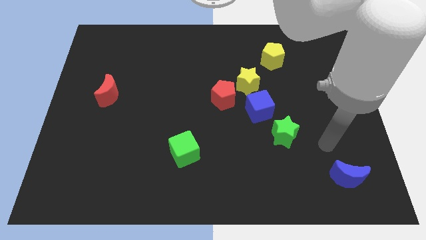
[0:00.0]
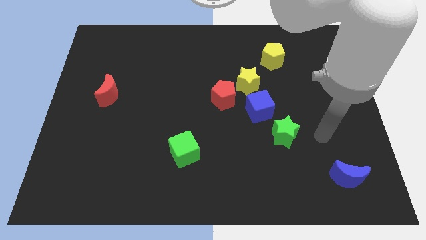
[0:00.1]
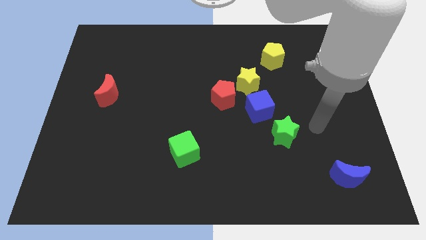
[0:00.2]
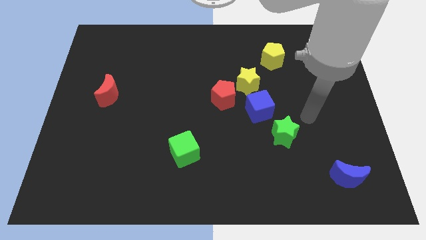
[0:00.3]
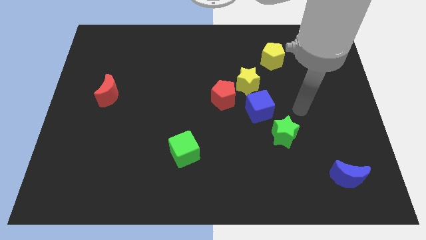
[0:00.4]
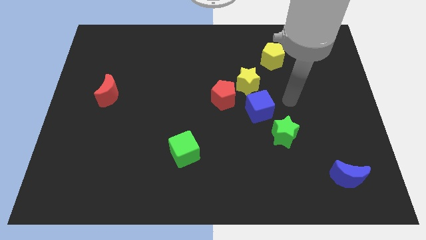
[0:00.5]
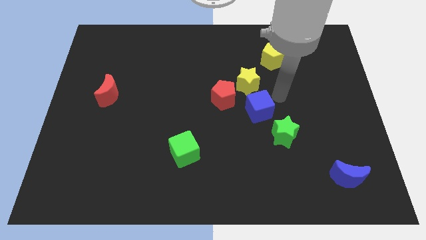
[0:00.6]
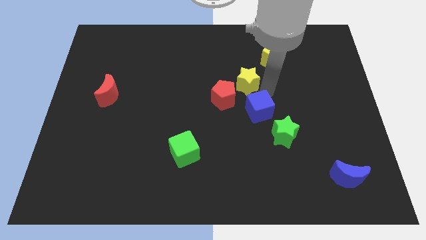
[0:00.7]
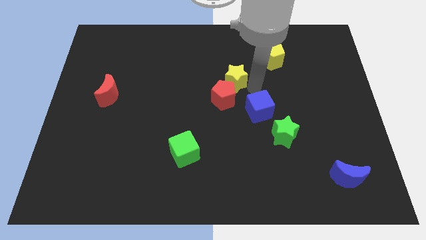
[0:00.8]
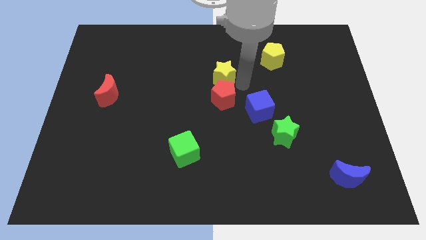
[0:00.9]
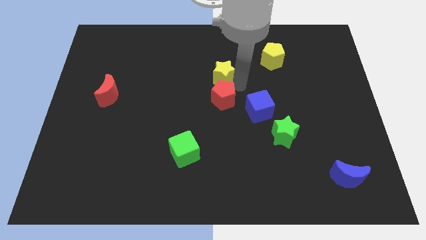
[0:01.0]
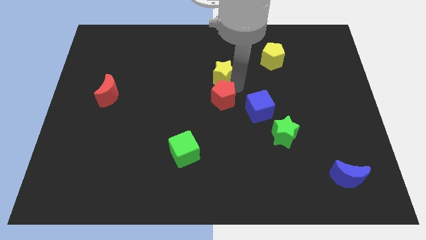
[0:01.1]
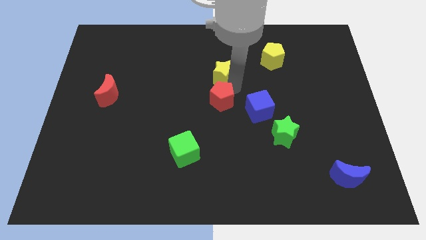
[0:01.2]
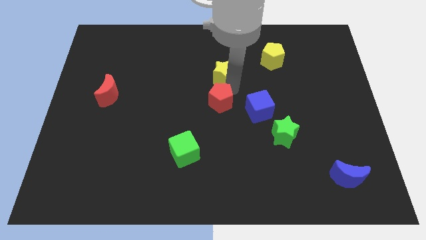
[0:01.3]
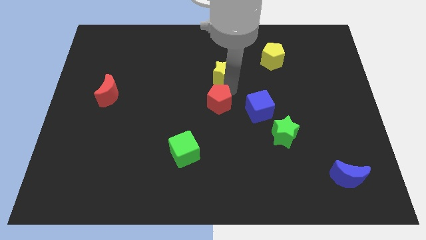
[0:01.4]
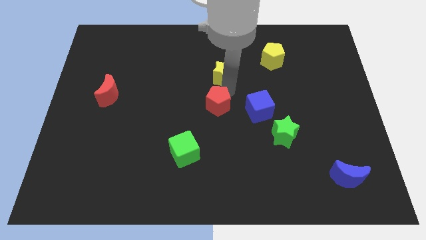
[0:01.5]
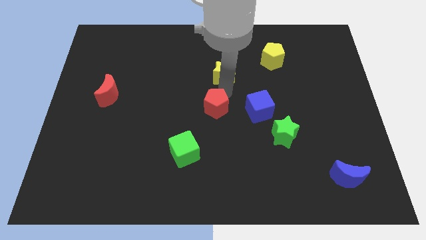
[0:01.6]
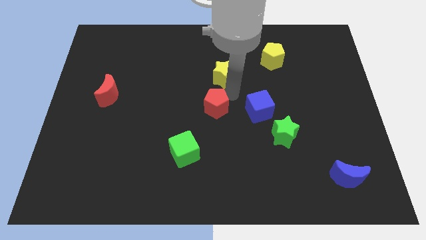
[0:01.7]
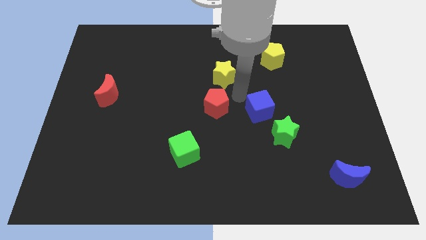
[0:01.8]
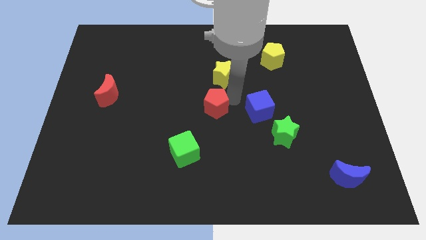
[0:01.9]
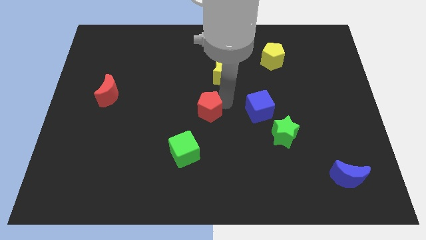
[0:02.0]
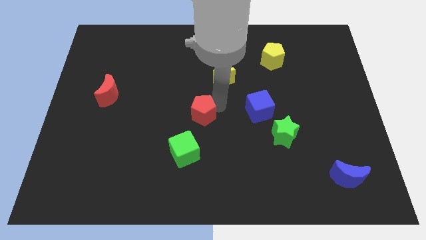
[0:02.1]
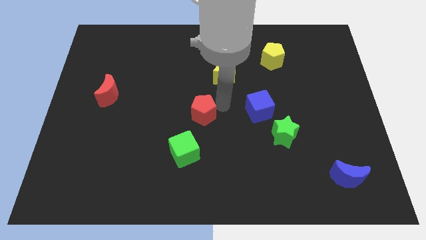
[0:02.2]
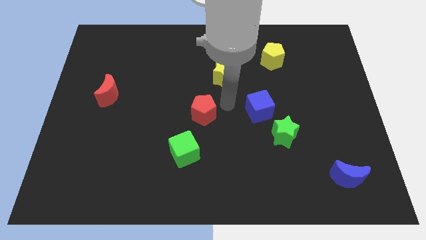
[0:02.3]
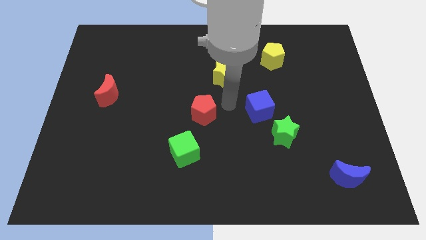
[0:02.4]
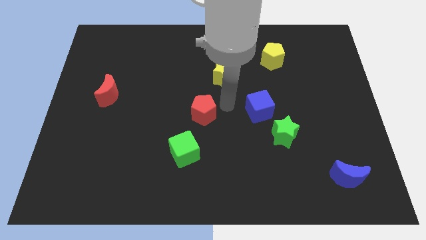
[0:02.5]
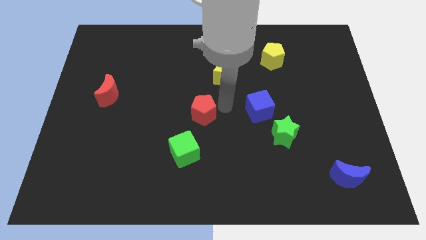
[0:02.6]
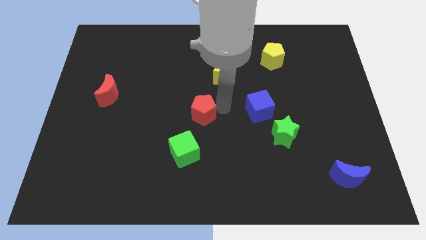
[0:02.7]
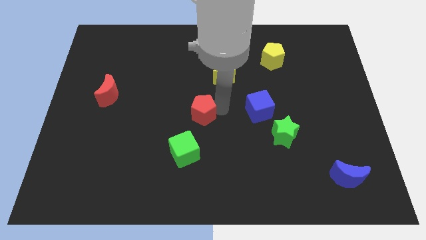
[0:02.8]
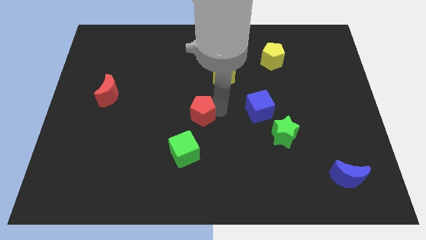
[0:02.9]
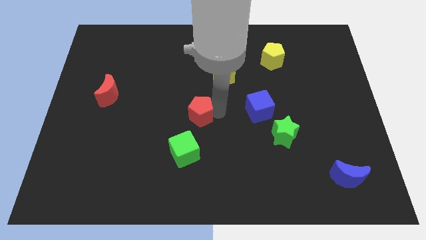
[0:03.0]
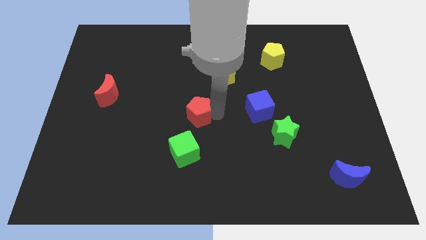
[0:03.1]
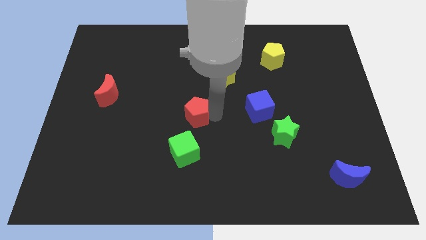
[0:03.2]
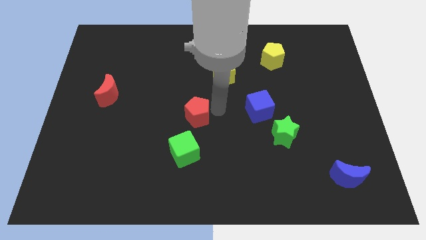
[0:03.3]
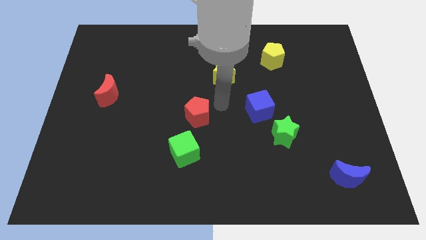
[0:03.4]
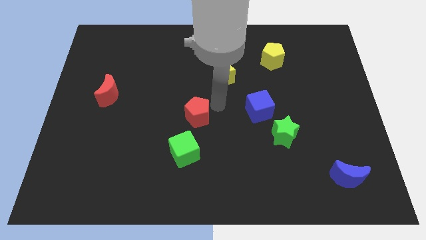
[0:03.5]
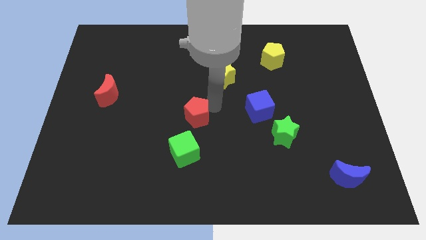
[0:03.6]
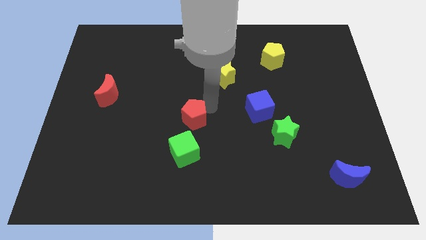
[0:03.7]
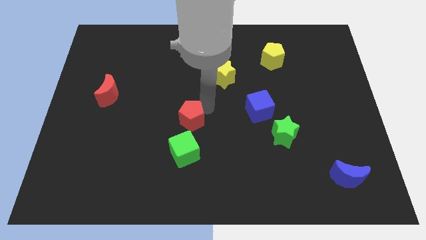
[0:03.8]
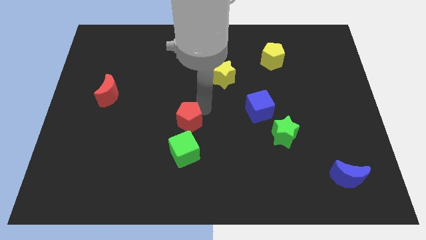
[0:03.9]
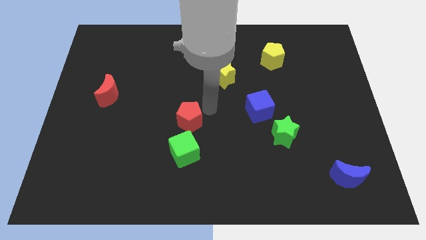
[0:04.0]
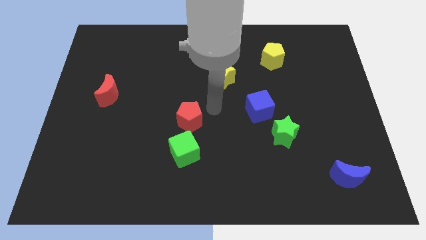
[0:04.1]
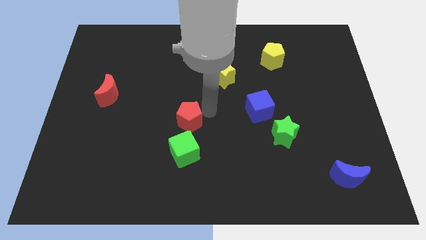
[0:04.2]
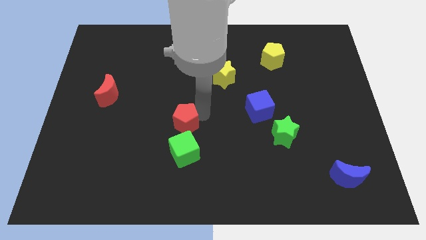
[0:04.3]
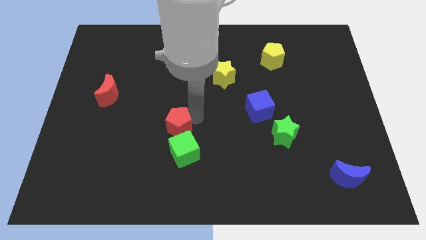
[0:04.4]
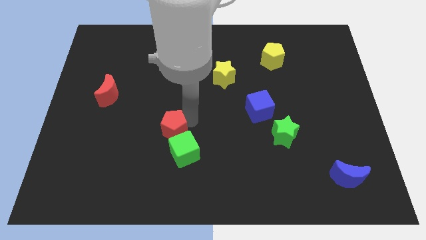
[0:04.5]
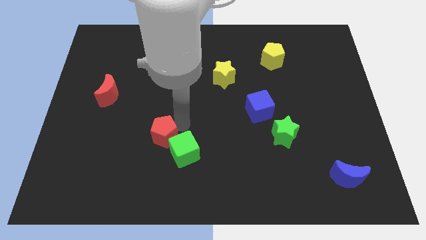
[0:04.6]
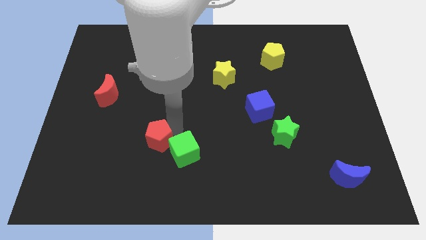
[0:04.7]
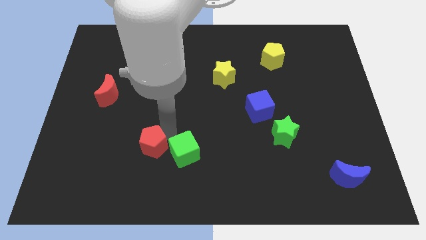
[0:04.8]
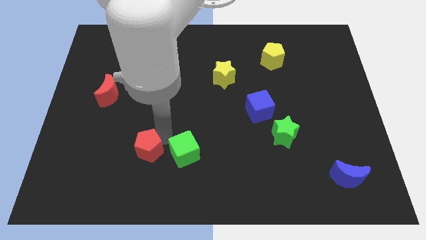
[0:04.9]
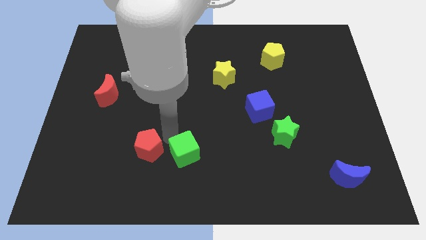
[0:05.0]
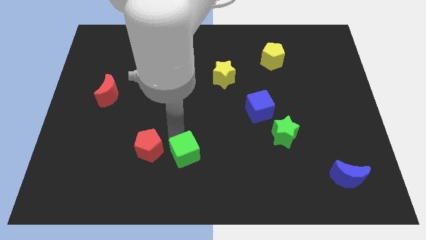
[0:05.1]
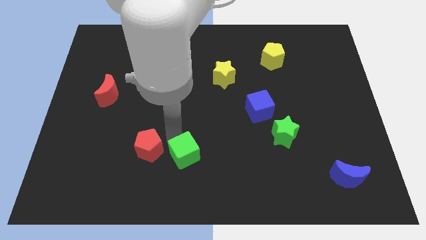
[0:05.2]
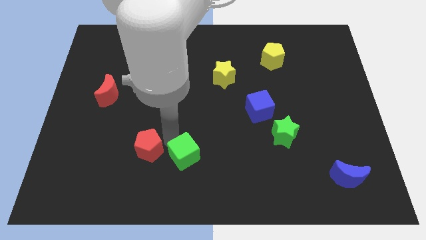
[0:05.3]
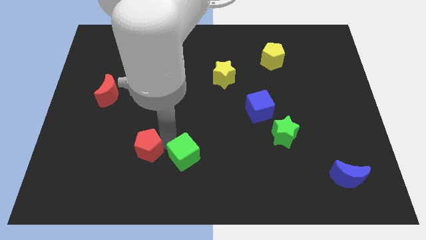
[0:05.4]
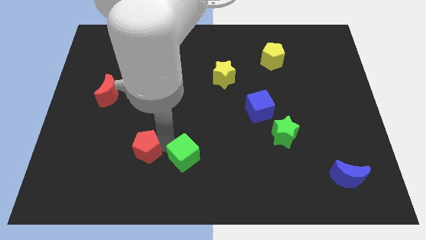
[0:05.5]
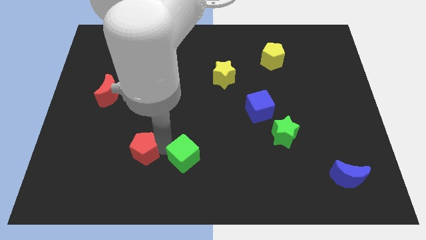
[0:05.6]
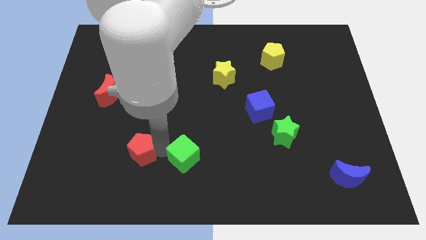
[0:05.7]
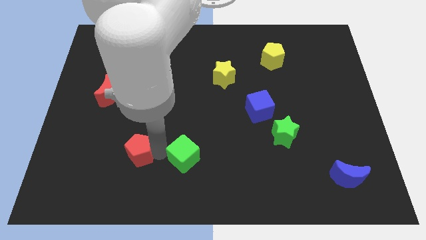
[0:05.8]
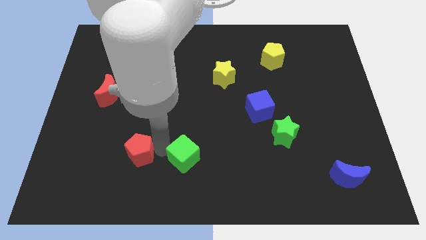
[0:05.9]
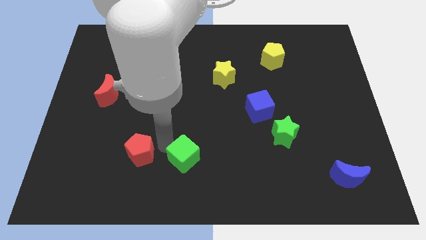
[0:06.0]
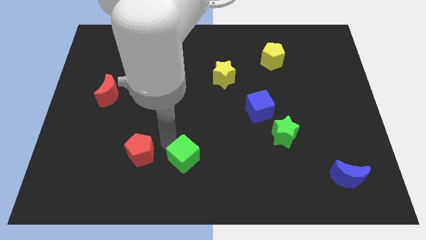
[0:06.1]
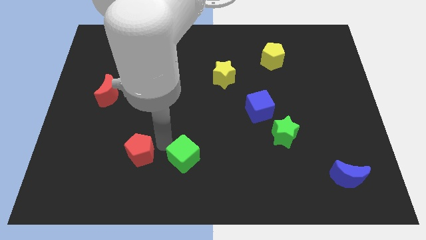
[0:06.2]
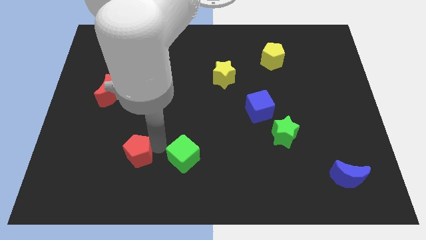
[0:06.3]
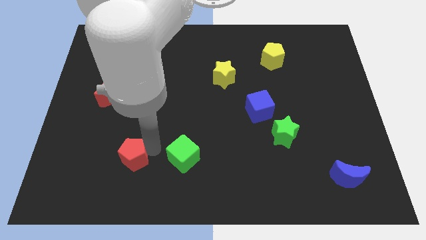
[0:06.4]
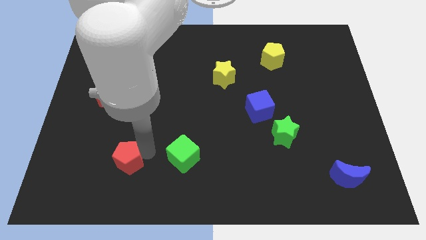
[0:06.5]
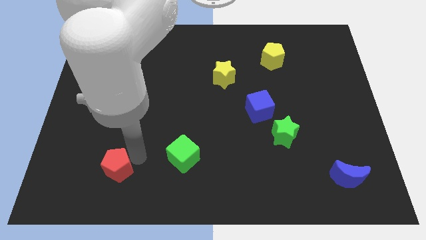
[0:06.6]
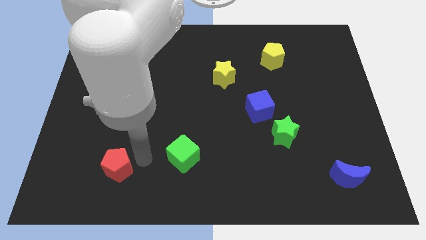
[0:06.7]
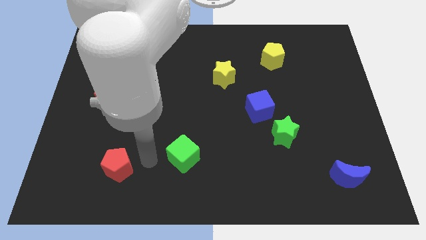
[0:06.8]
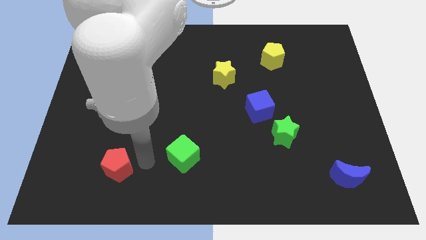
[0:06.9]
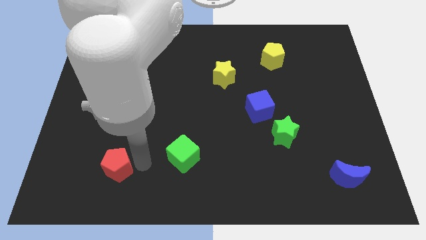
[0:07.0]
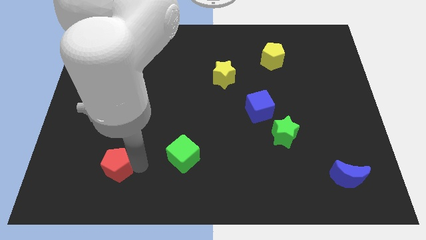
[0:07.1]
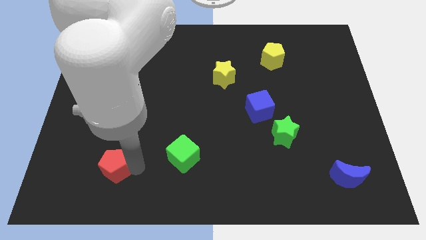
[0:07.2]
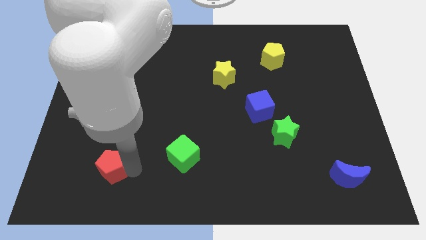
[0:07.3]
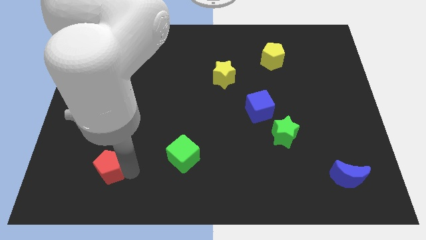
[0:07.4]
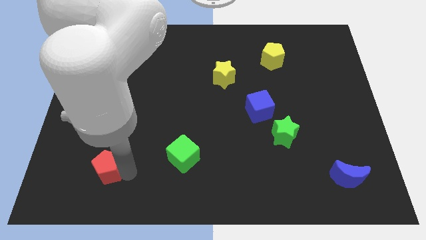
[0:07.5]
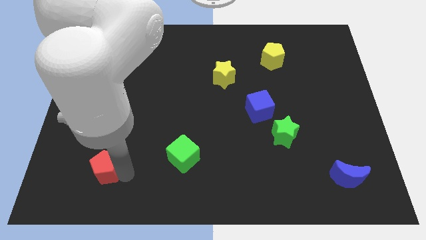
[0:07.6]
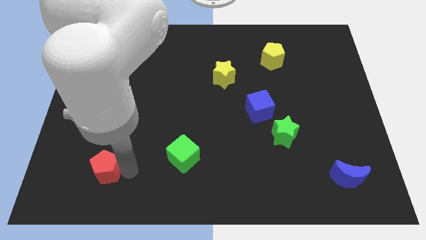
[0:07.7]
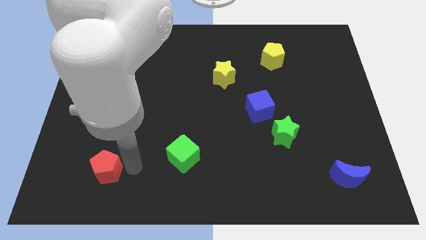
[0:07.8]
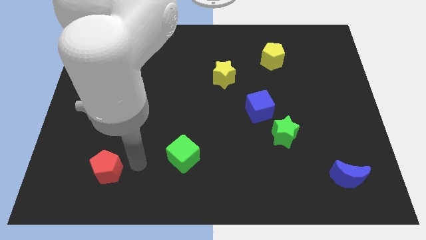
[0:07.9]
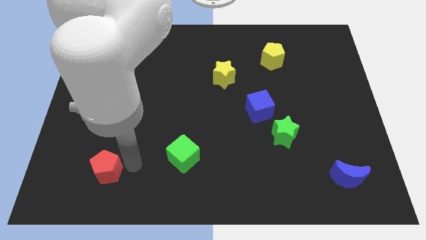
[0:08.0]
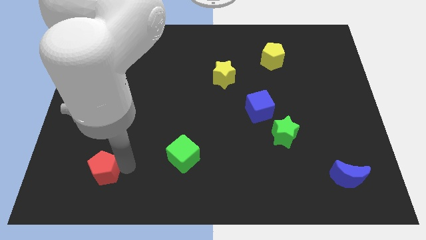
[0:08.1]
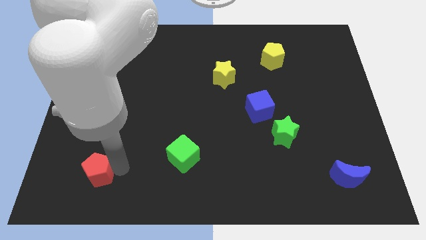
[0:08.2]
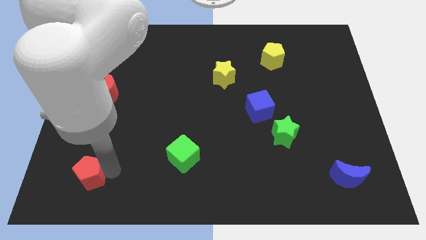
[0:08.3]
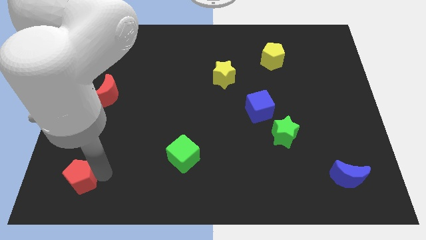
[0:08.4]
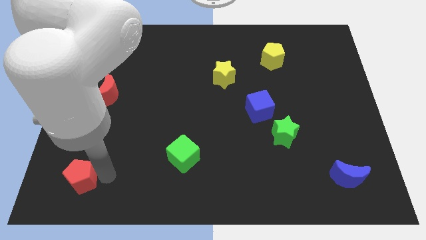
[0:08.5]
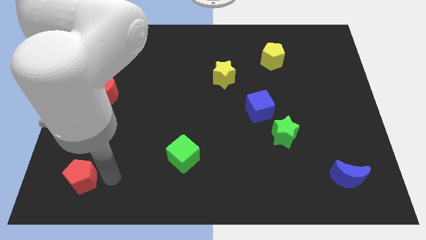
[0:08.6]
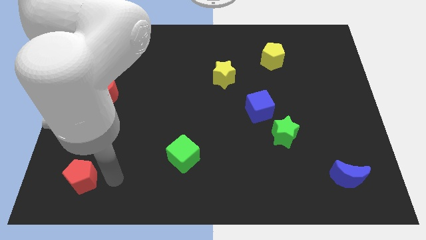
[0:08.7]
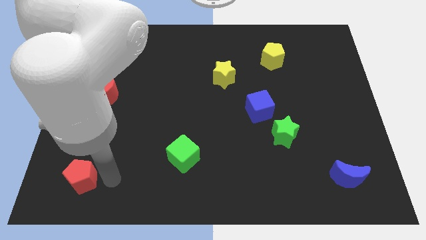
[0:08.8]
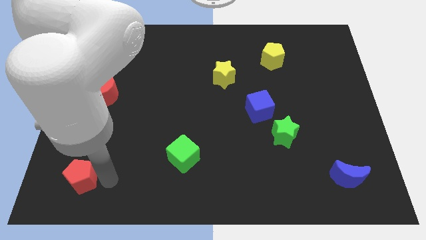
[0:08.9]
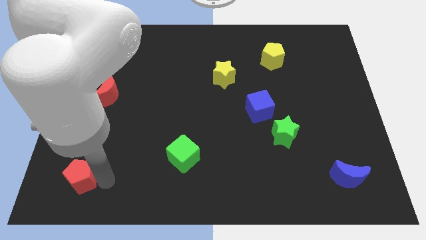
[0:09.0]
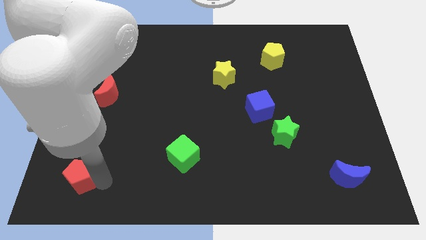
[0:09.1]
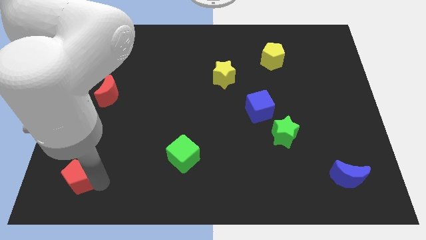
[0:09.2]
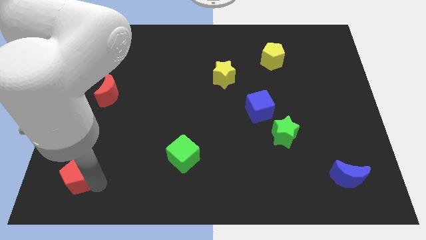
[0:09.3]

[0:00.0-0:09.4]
push the red pentagon to the lower left corner
